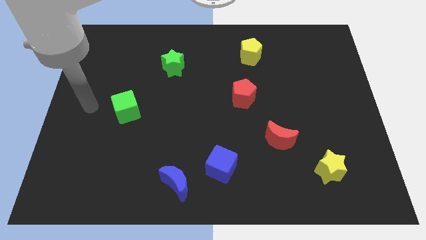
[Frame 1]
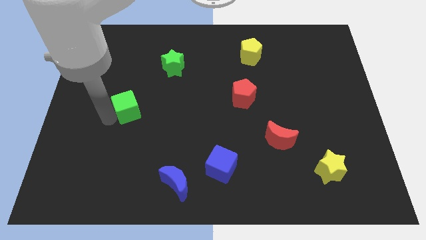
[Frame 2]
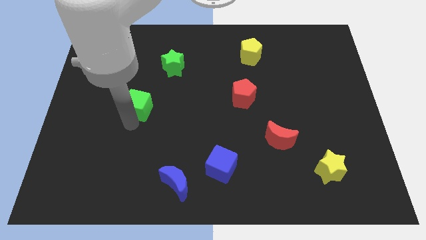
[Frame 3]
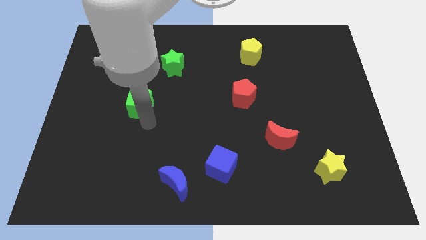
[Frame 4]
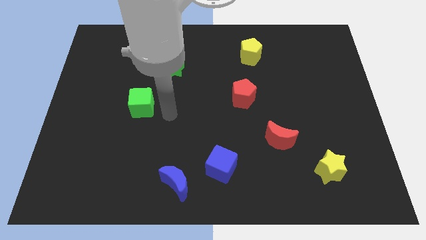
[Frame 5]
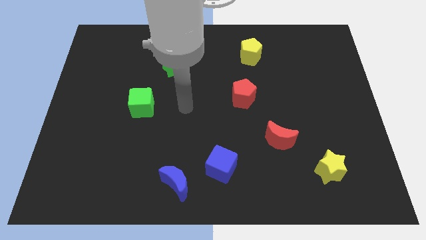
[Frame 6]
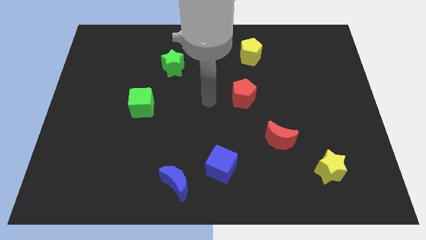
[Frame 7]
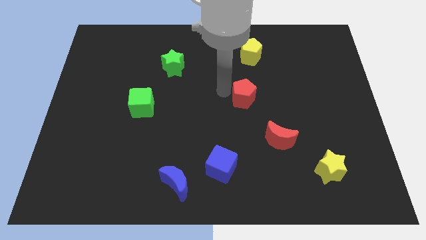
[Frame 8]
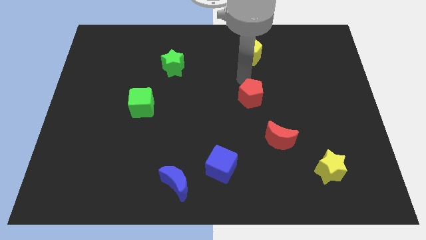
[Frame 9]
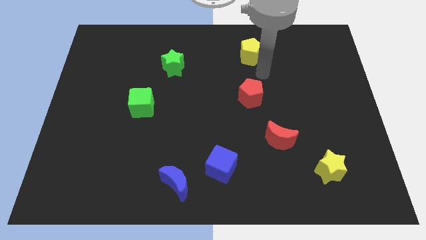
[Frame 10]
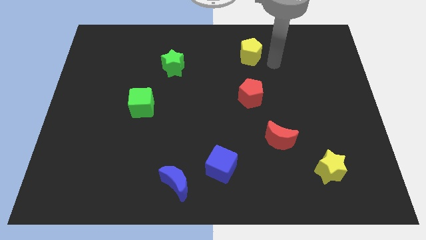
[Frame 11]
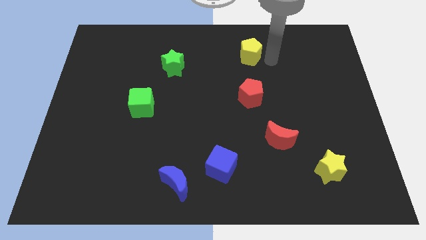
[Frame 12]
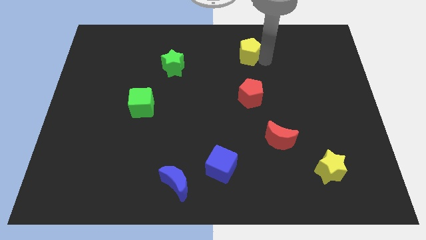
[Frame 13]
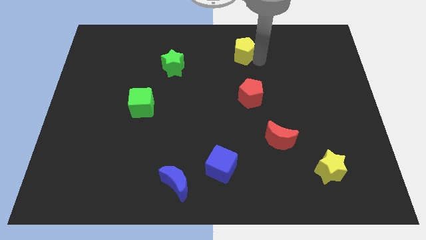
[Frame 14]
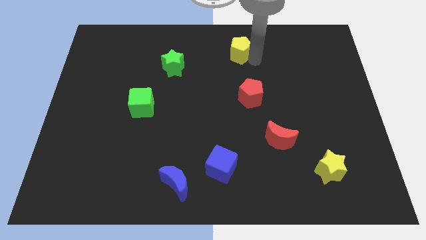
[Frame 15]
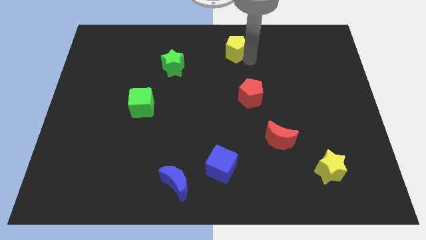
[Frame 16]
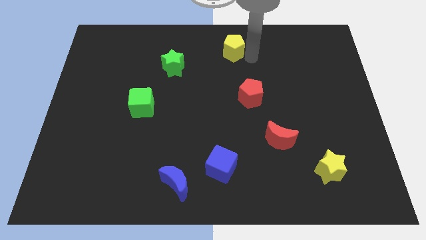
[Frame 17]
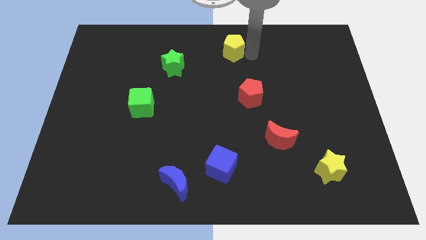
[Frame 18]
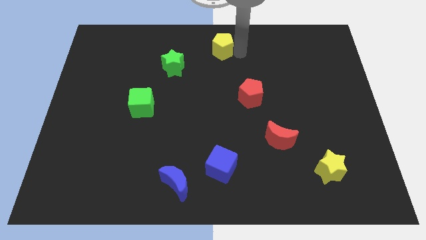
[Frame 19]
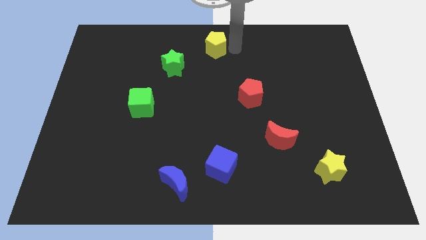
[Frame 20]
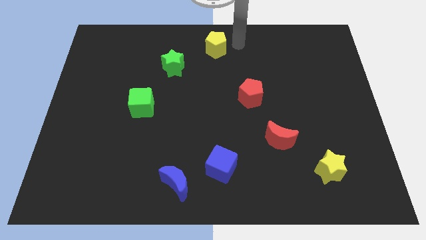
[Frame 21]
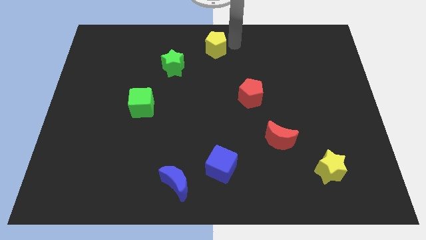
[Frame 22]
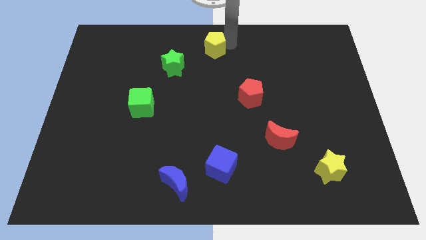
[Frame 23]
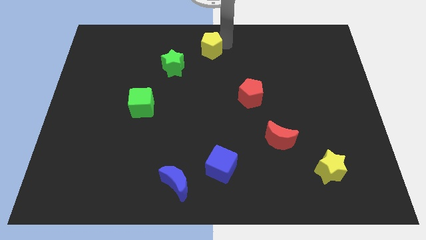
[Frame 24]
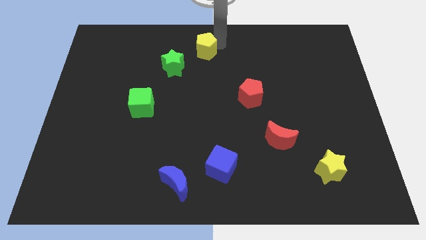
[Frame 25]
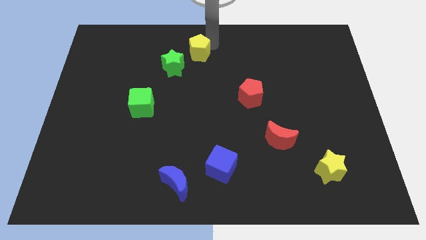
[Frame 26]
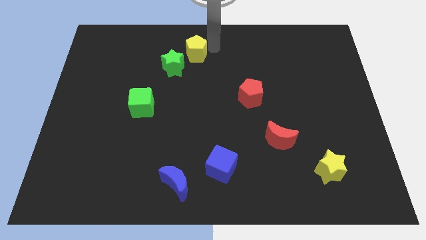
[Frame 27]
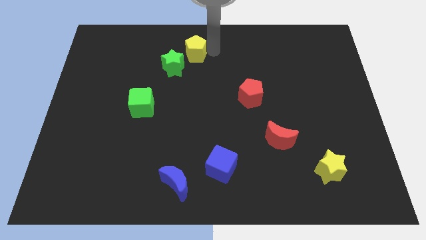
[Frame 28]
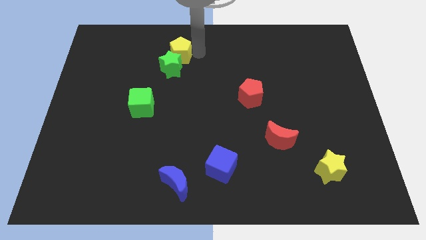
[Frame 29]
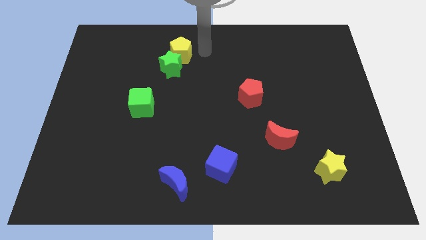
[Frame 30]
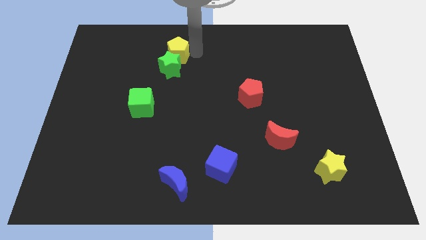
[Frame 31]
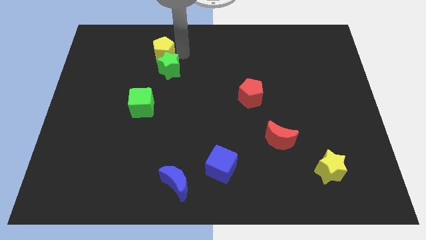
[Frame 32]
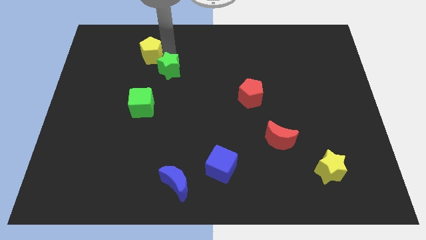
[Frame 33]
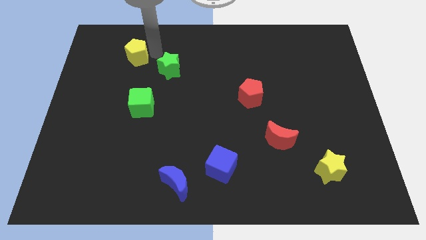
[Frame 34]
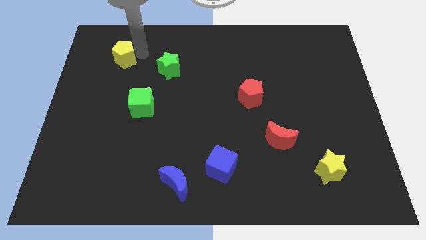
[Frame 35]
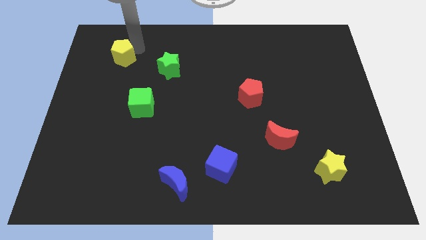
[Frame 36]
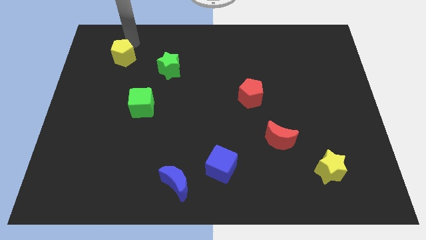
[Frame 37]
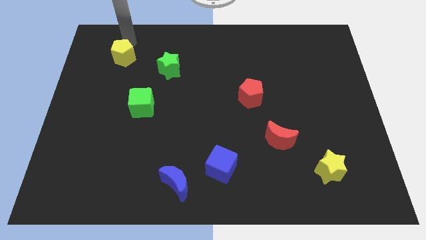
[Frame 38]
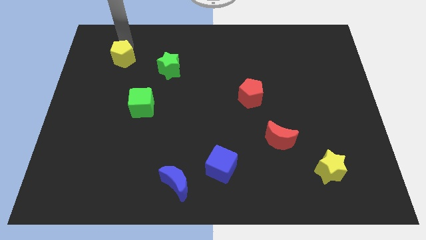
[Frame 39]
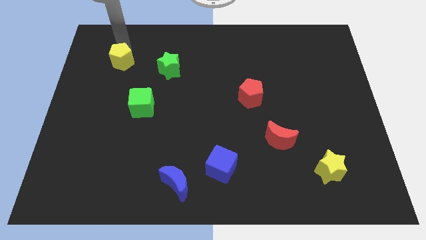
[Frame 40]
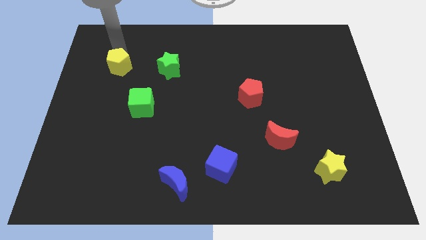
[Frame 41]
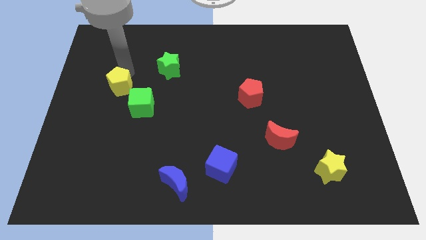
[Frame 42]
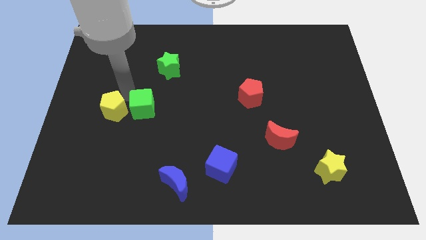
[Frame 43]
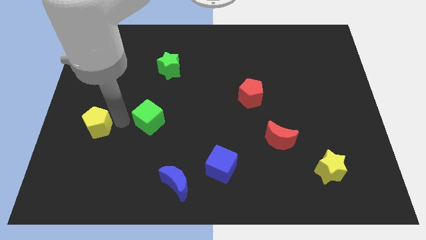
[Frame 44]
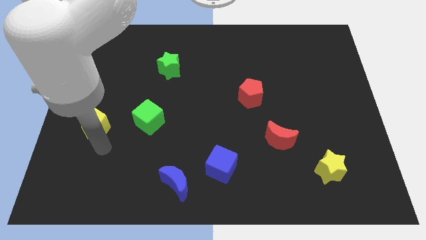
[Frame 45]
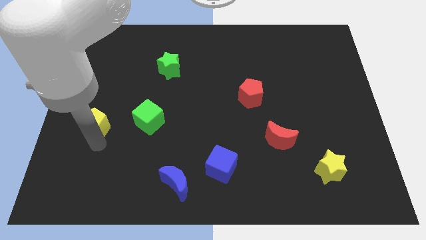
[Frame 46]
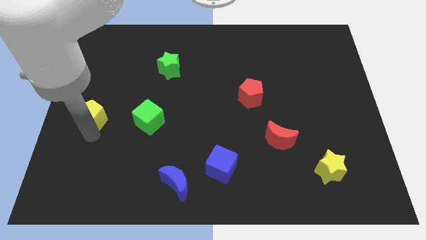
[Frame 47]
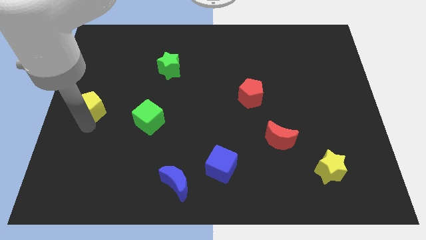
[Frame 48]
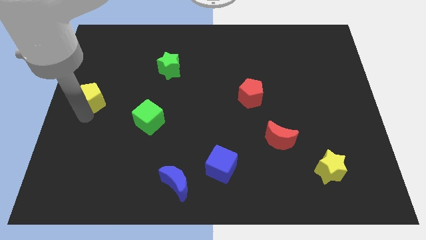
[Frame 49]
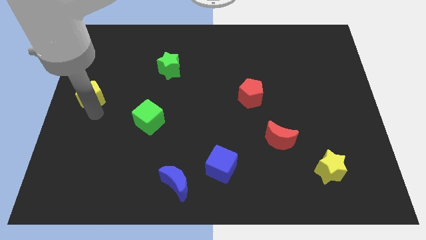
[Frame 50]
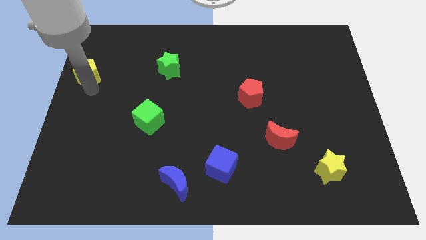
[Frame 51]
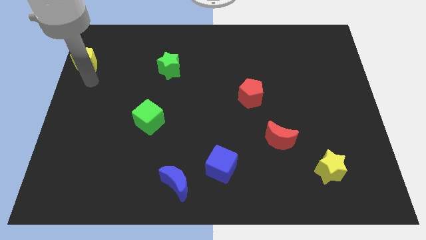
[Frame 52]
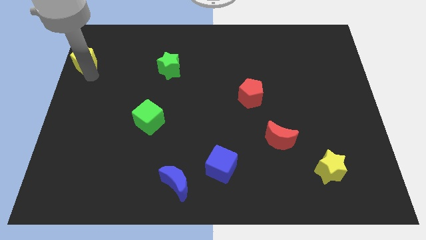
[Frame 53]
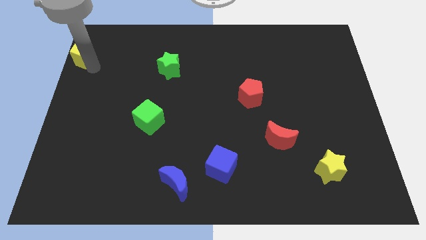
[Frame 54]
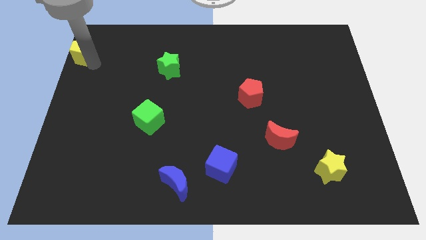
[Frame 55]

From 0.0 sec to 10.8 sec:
move the yellow pentagon to the upper left corner
